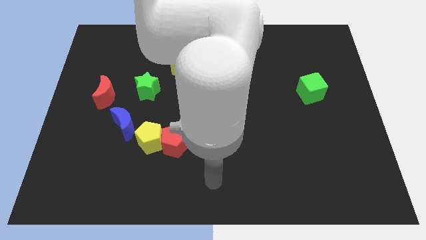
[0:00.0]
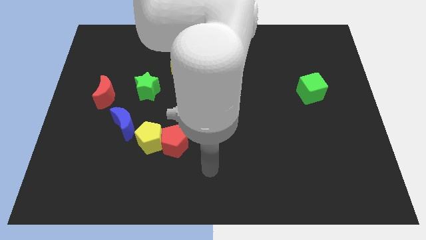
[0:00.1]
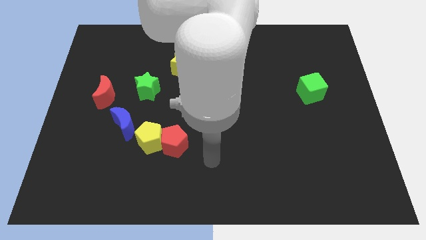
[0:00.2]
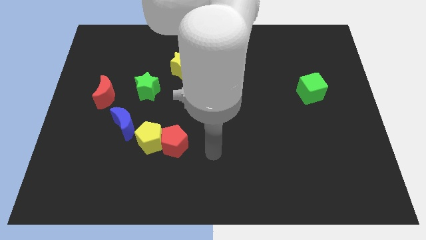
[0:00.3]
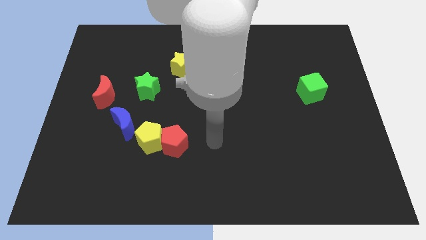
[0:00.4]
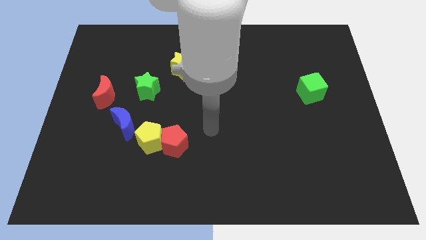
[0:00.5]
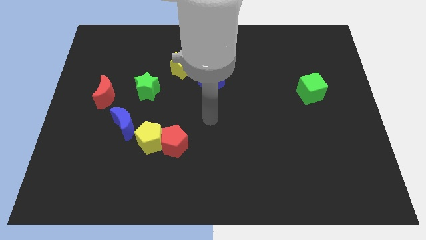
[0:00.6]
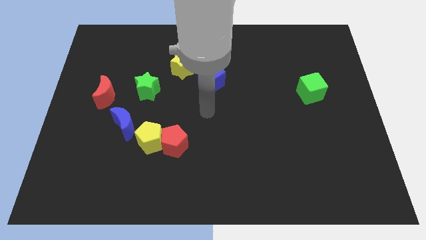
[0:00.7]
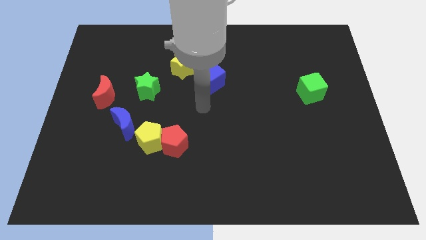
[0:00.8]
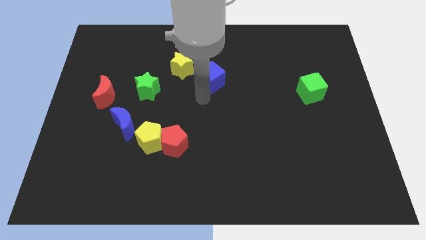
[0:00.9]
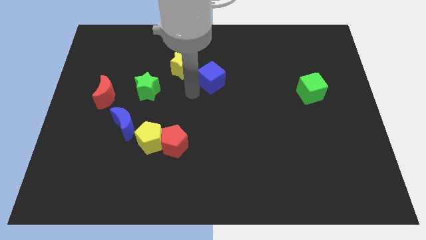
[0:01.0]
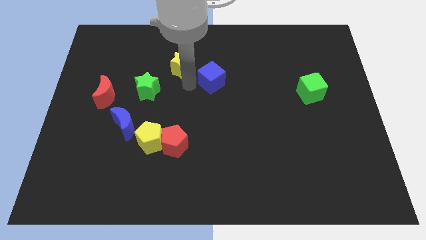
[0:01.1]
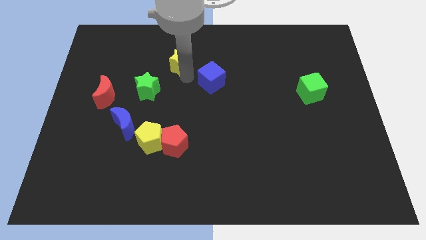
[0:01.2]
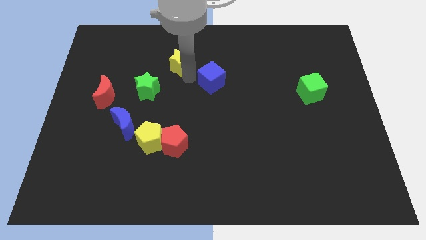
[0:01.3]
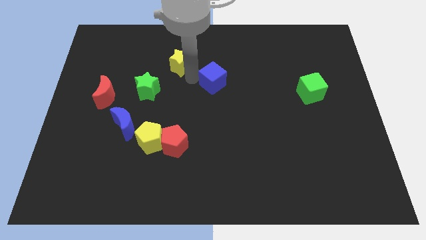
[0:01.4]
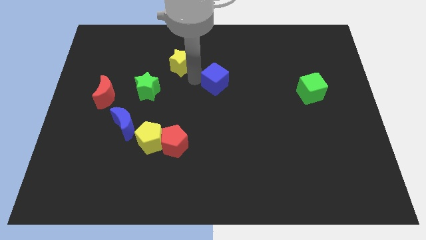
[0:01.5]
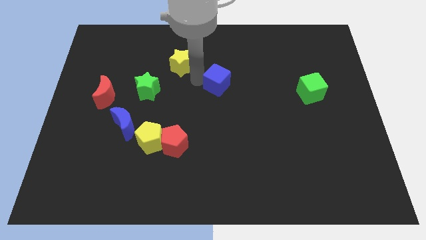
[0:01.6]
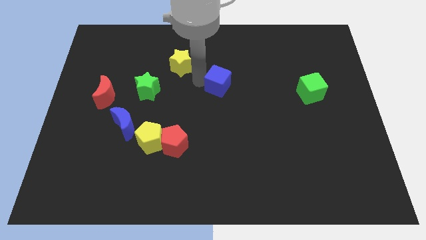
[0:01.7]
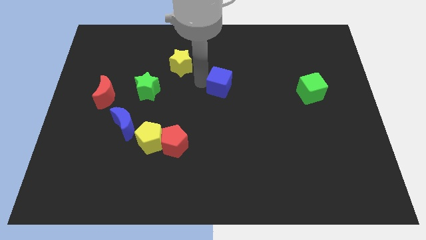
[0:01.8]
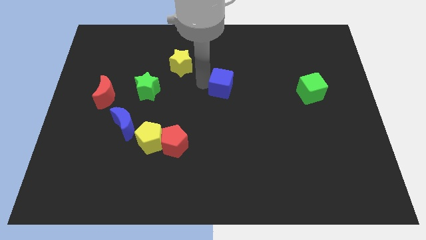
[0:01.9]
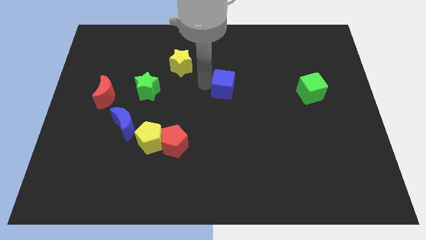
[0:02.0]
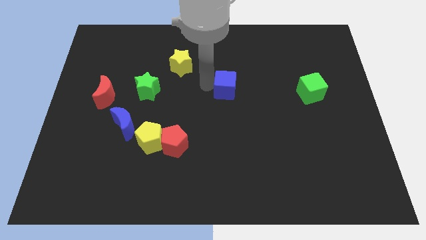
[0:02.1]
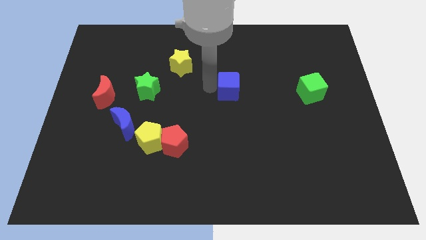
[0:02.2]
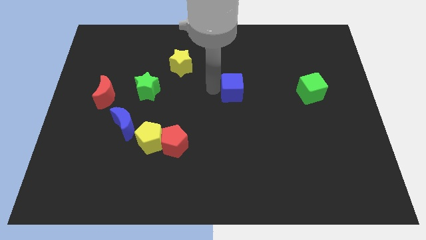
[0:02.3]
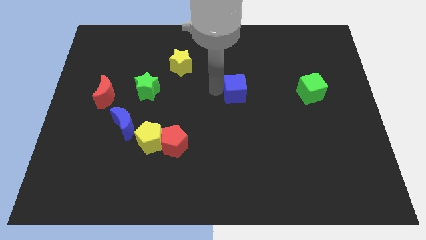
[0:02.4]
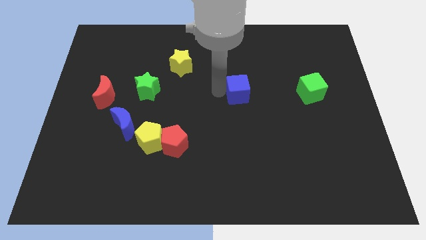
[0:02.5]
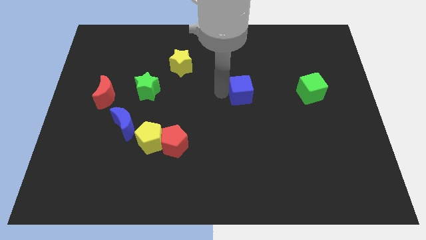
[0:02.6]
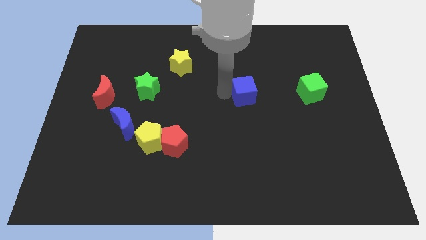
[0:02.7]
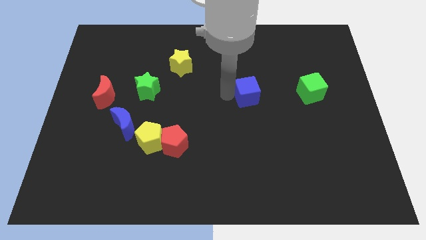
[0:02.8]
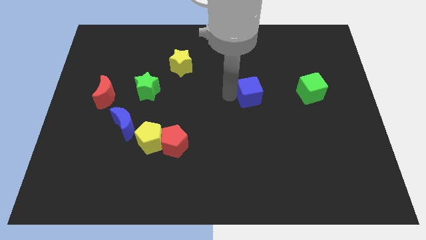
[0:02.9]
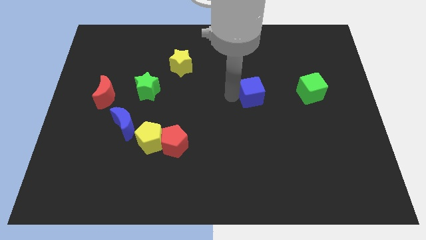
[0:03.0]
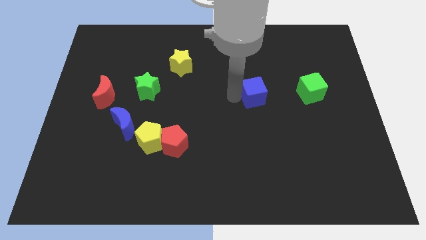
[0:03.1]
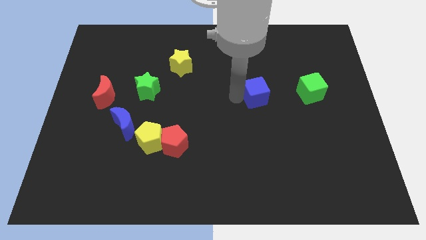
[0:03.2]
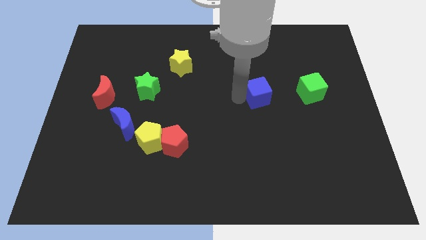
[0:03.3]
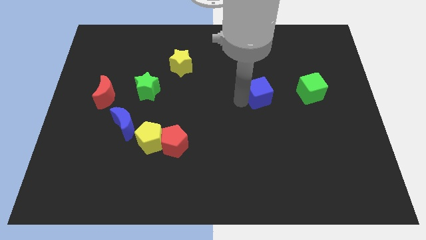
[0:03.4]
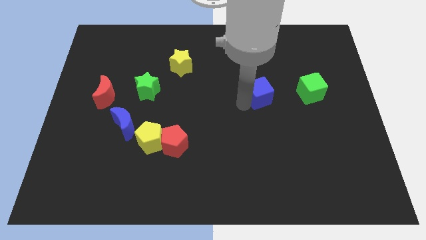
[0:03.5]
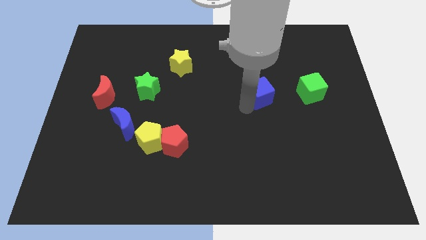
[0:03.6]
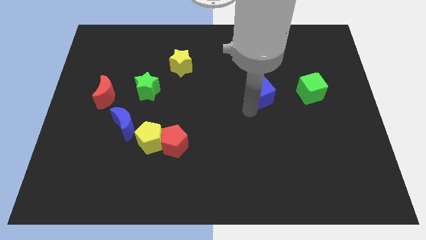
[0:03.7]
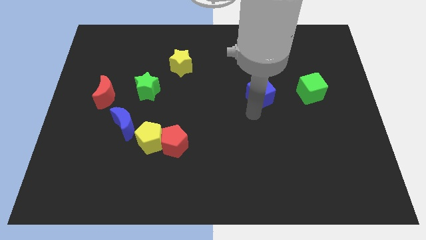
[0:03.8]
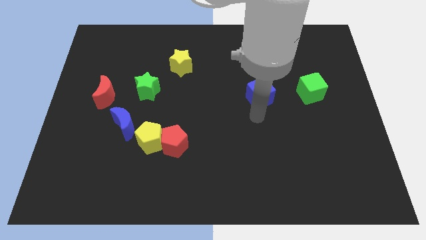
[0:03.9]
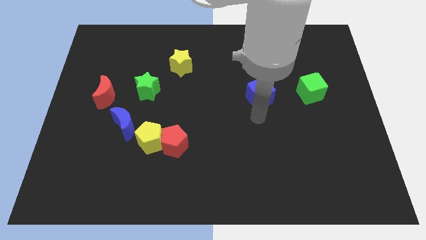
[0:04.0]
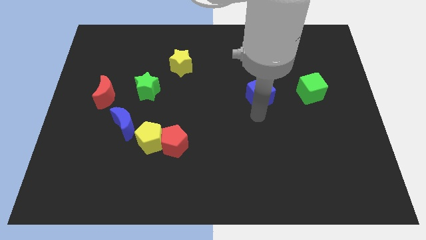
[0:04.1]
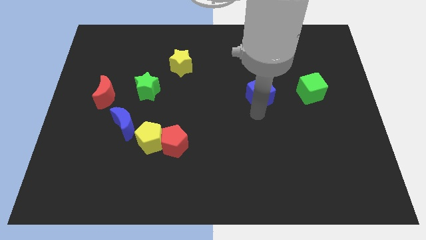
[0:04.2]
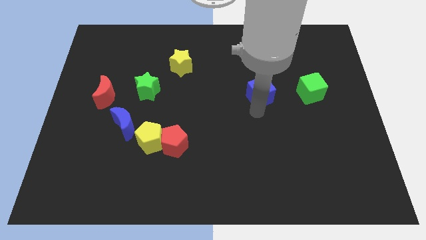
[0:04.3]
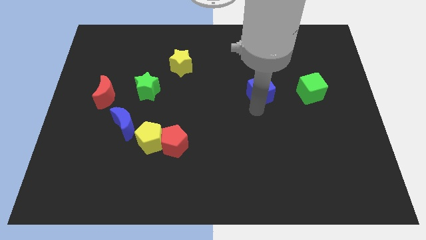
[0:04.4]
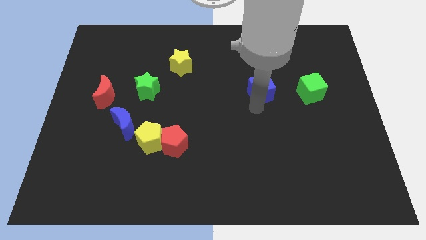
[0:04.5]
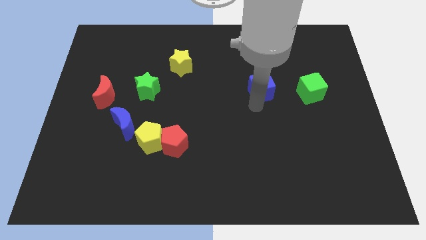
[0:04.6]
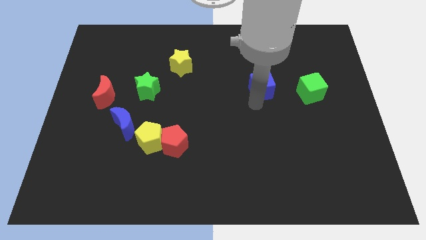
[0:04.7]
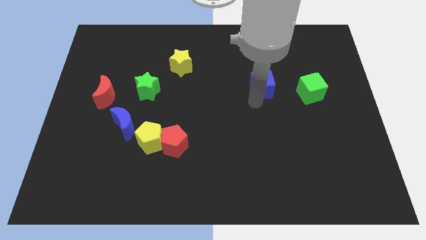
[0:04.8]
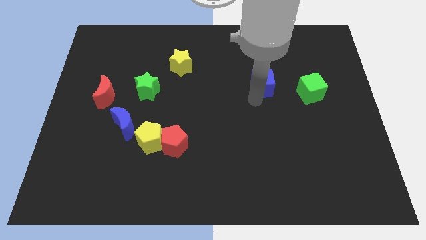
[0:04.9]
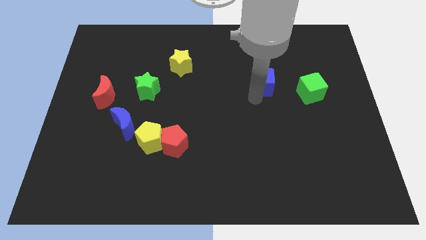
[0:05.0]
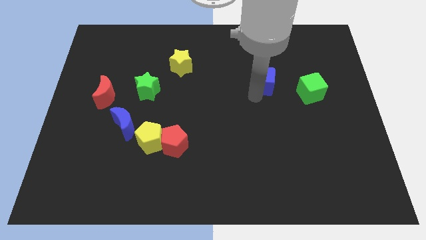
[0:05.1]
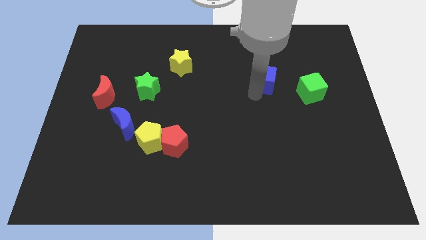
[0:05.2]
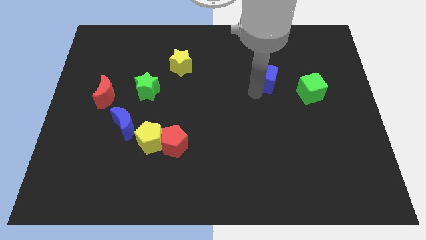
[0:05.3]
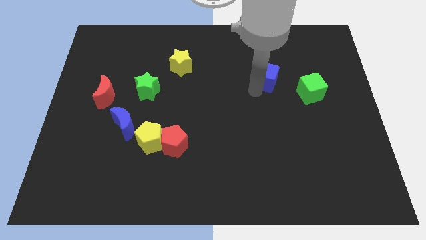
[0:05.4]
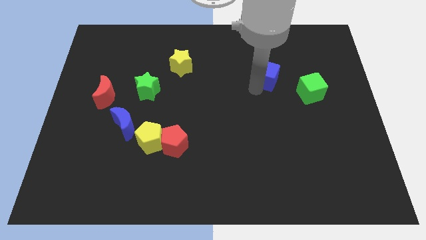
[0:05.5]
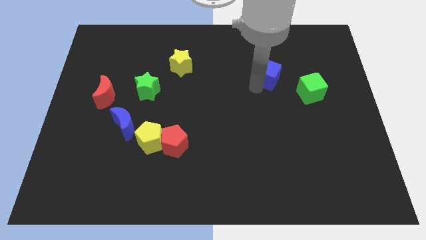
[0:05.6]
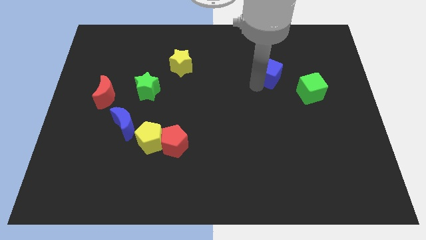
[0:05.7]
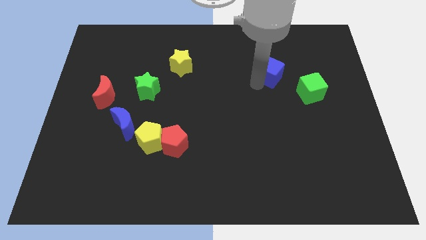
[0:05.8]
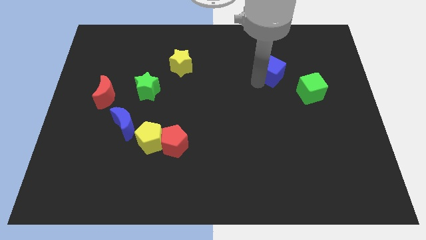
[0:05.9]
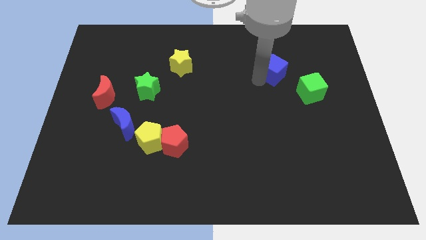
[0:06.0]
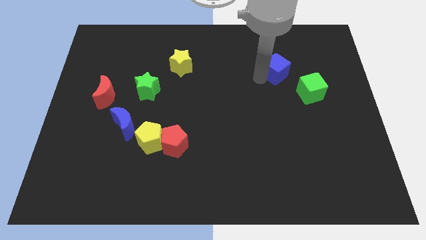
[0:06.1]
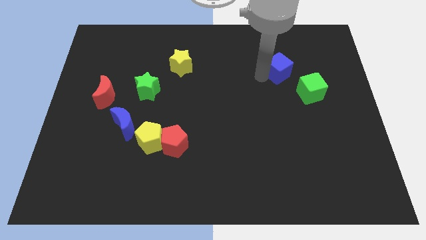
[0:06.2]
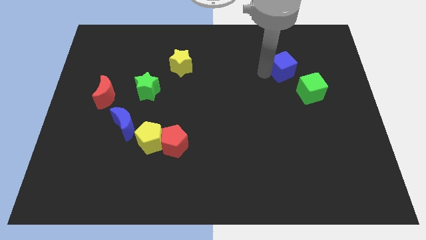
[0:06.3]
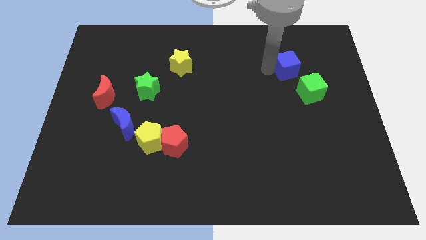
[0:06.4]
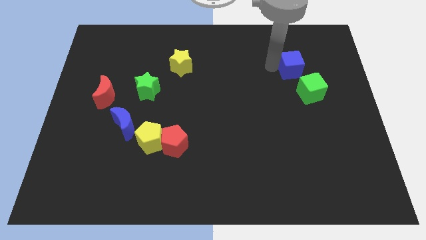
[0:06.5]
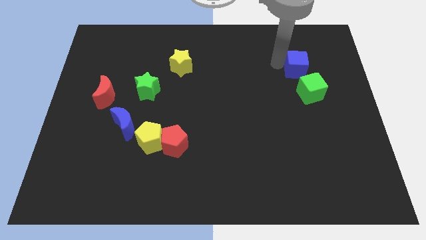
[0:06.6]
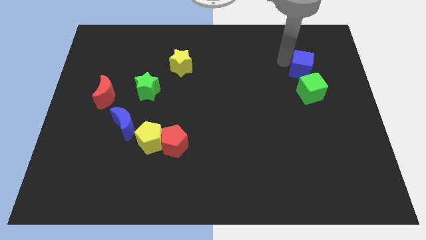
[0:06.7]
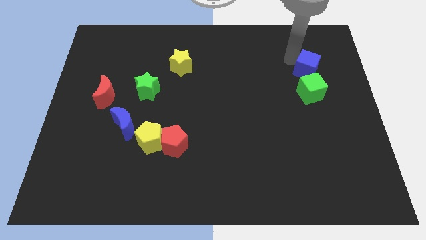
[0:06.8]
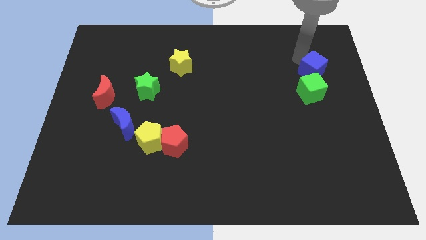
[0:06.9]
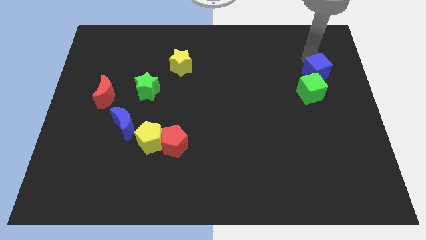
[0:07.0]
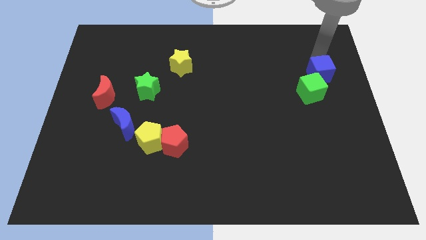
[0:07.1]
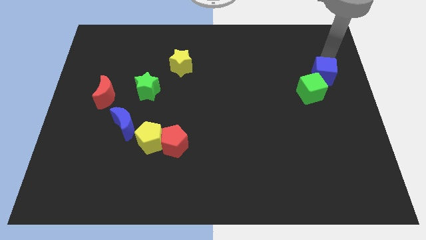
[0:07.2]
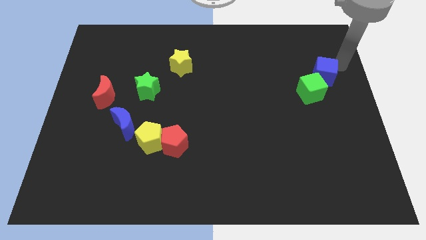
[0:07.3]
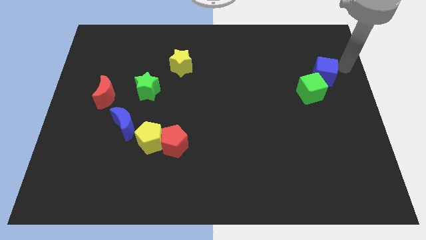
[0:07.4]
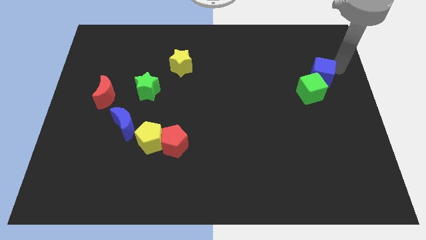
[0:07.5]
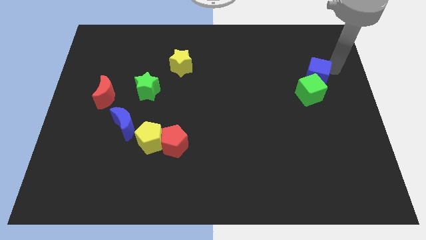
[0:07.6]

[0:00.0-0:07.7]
put the blue cube towards the green cube
